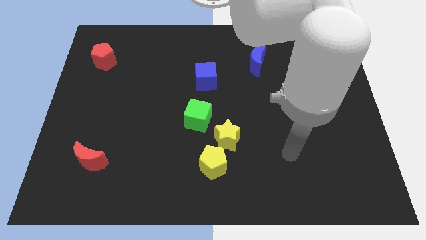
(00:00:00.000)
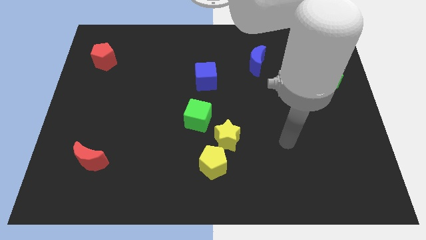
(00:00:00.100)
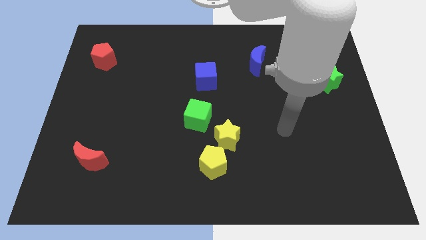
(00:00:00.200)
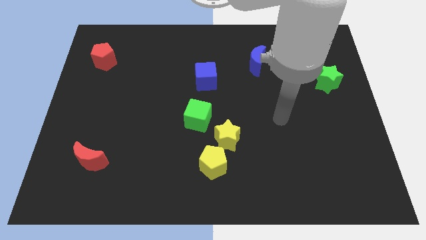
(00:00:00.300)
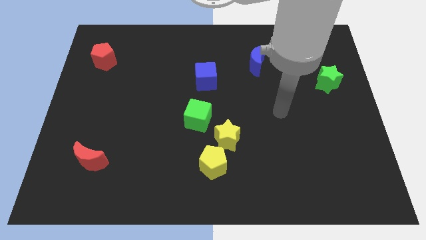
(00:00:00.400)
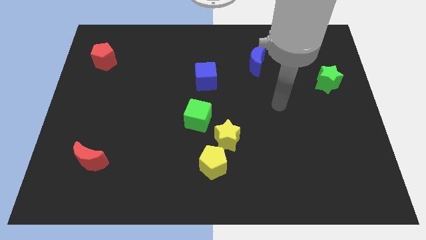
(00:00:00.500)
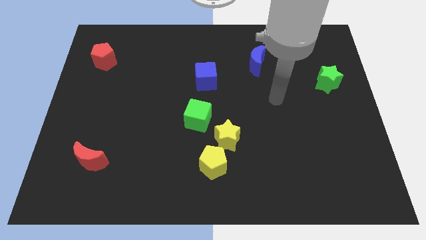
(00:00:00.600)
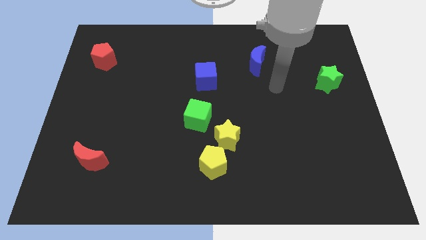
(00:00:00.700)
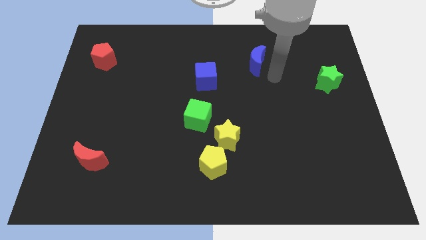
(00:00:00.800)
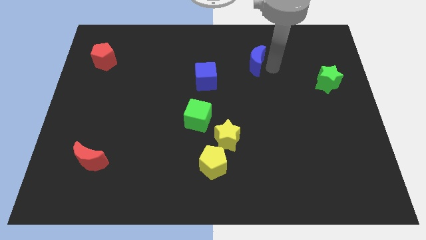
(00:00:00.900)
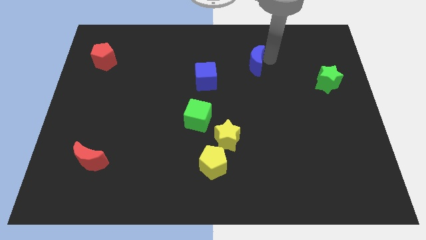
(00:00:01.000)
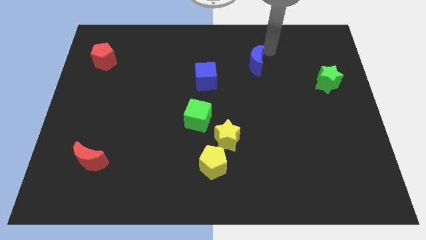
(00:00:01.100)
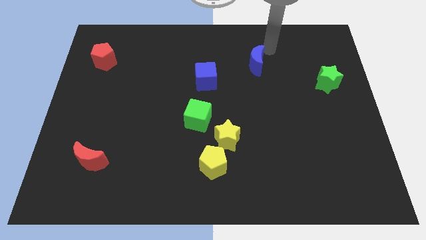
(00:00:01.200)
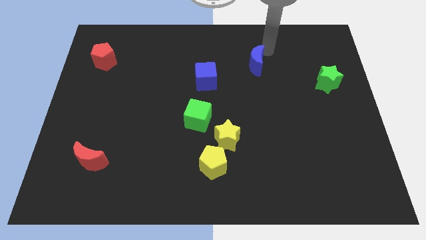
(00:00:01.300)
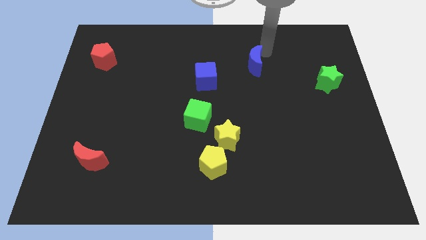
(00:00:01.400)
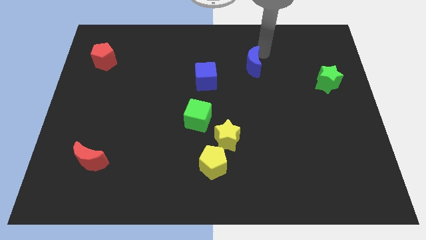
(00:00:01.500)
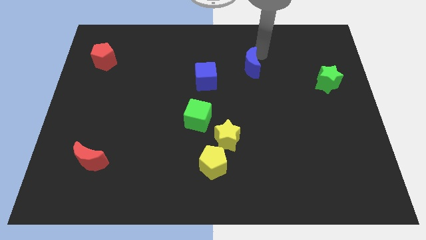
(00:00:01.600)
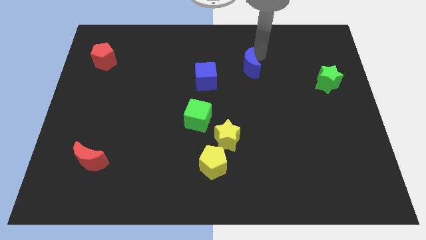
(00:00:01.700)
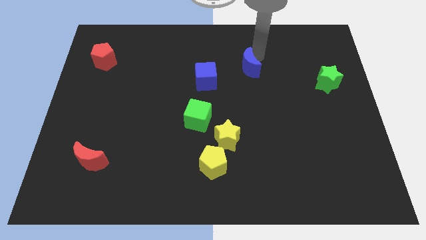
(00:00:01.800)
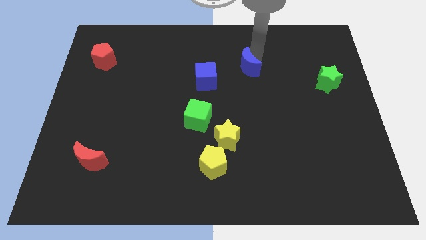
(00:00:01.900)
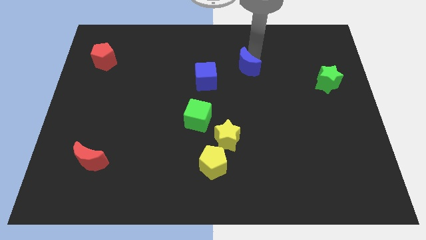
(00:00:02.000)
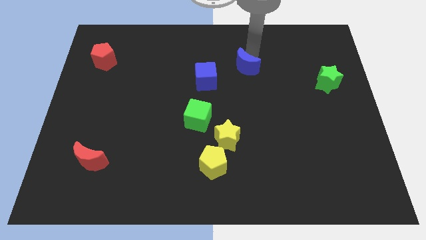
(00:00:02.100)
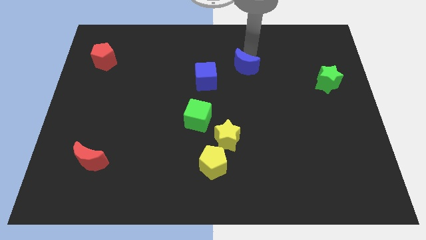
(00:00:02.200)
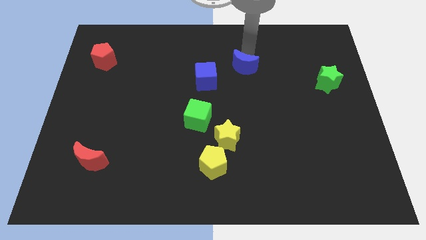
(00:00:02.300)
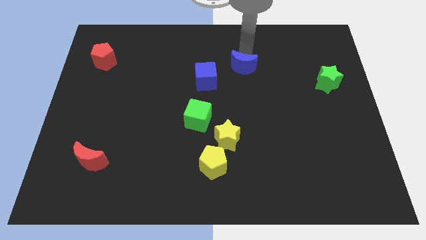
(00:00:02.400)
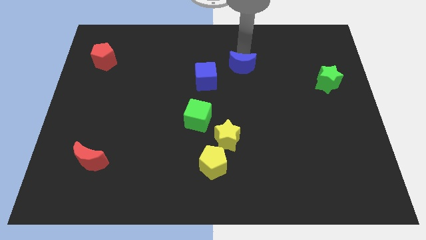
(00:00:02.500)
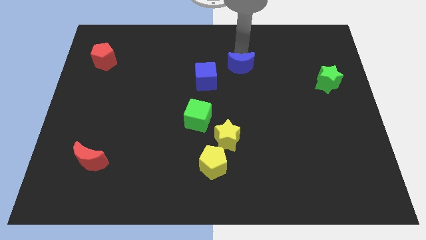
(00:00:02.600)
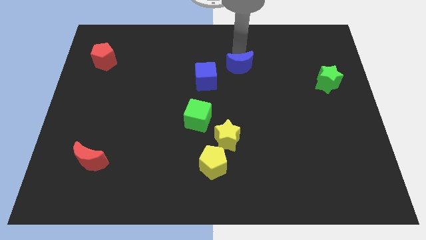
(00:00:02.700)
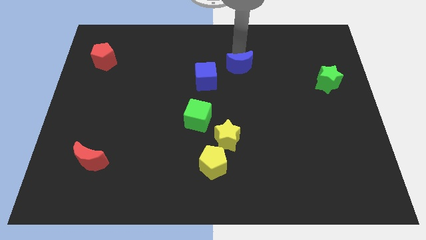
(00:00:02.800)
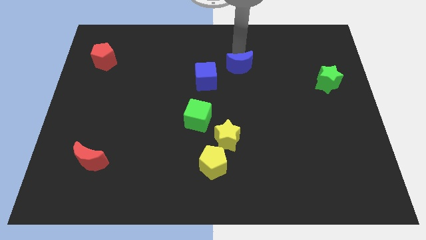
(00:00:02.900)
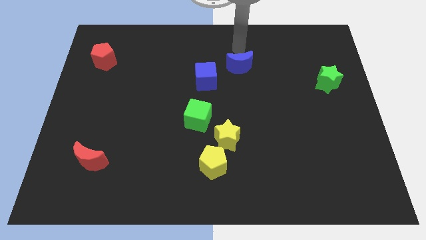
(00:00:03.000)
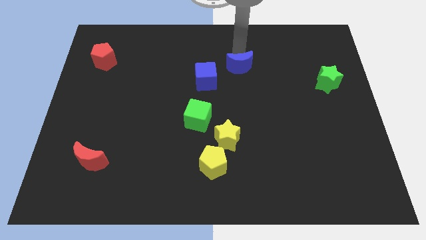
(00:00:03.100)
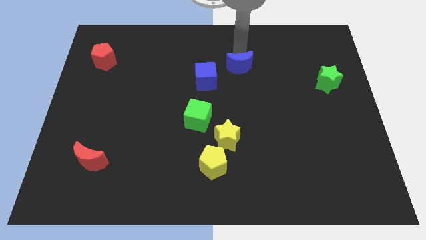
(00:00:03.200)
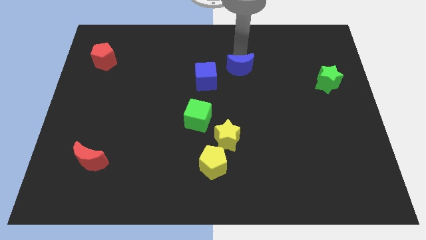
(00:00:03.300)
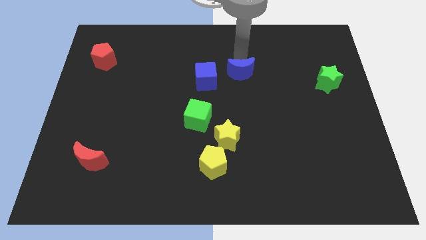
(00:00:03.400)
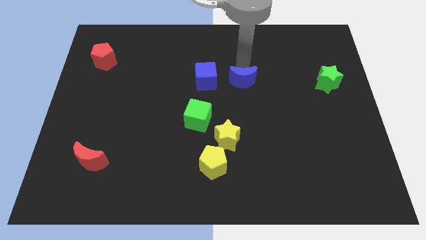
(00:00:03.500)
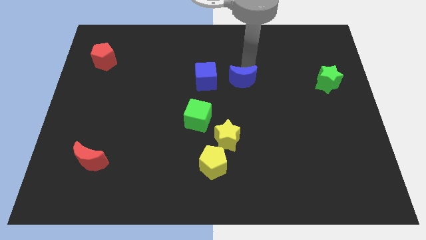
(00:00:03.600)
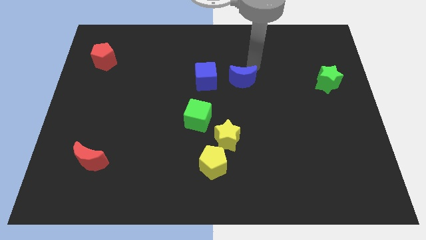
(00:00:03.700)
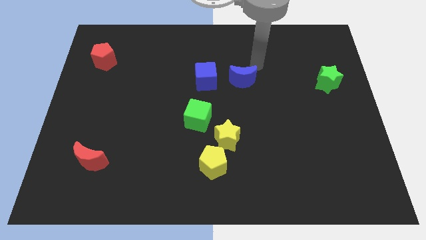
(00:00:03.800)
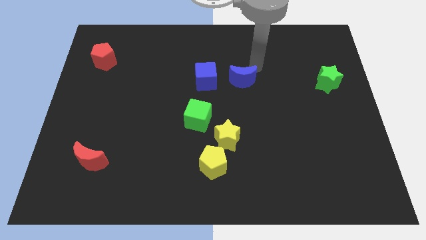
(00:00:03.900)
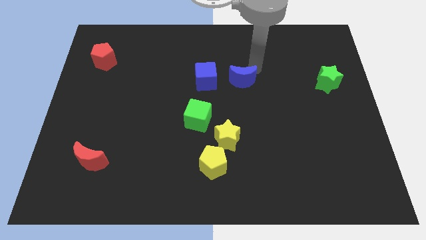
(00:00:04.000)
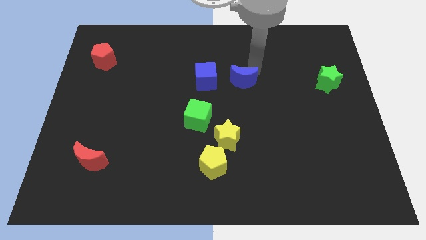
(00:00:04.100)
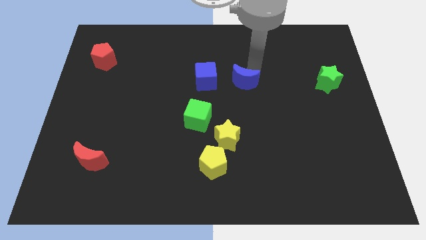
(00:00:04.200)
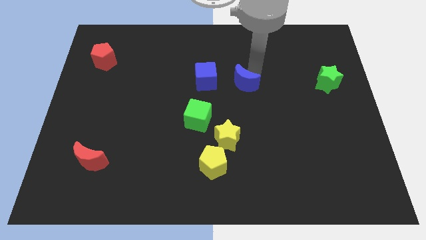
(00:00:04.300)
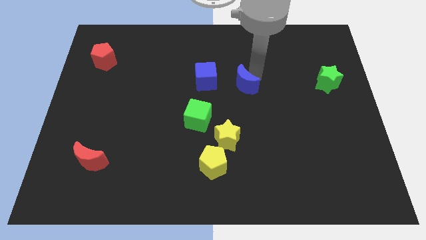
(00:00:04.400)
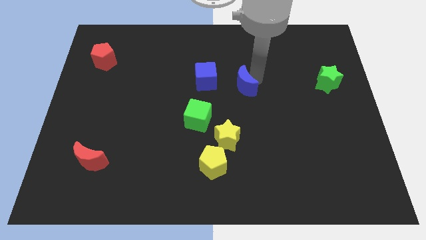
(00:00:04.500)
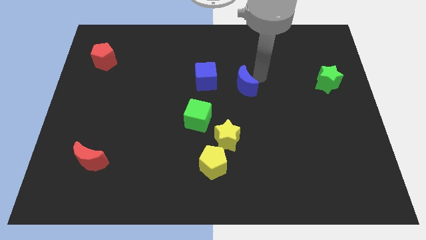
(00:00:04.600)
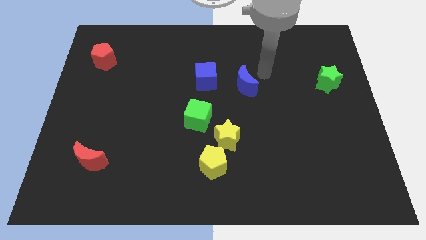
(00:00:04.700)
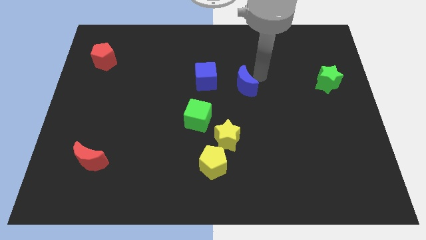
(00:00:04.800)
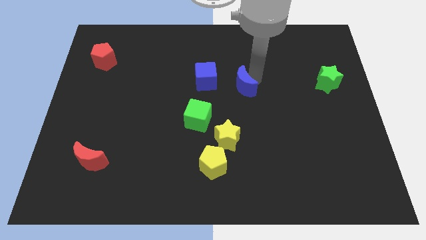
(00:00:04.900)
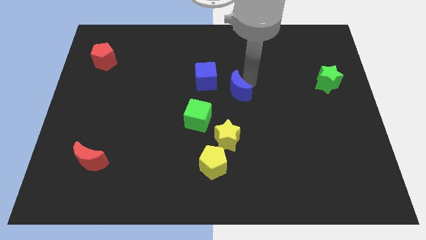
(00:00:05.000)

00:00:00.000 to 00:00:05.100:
push the blue moon to the bottom right side of the blue cube

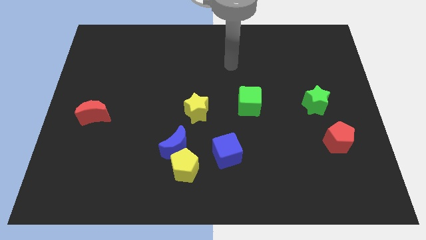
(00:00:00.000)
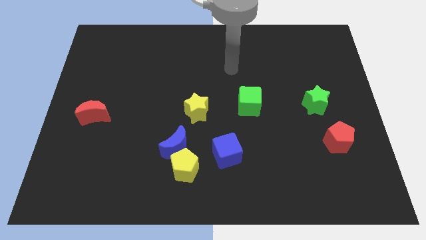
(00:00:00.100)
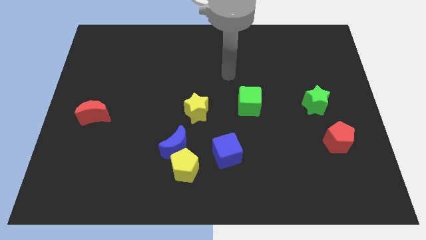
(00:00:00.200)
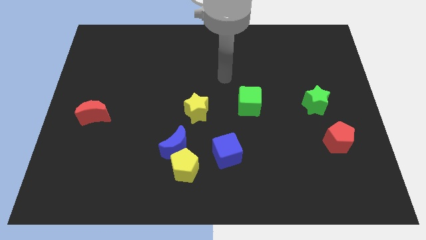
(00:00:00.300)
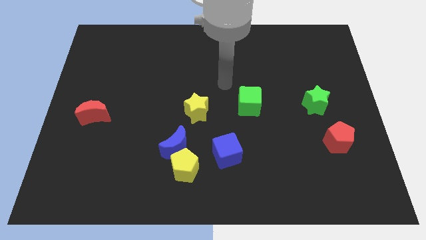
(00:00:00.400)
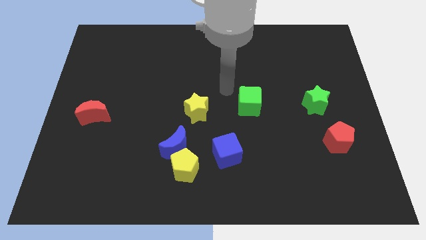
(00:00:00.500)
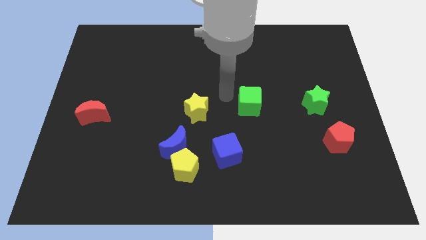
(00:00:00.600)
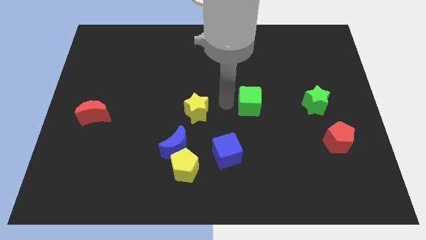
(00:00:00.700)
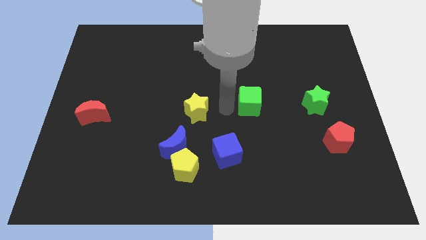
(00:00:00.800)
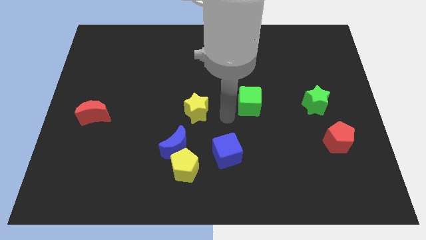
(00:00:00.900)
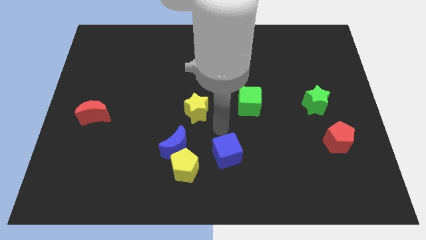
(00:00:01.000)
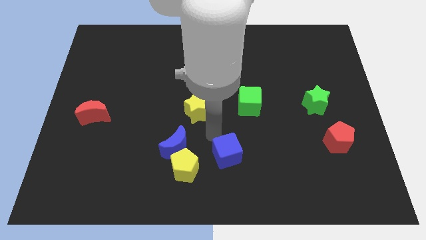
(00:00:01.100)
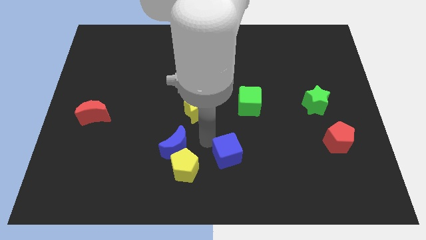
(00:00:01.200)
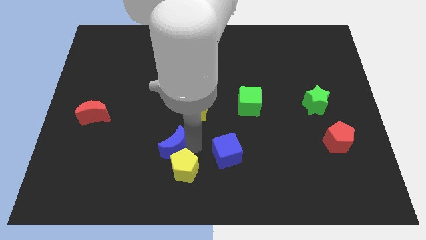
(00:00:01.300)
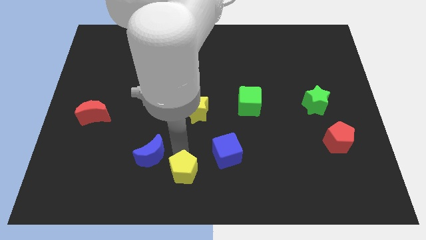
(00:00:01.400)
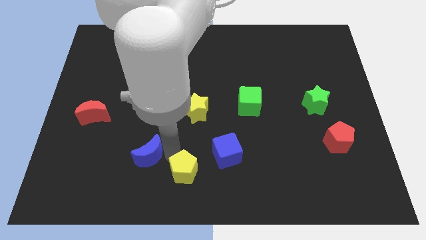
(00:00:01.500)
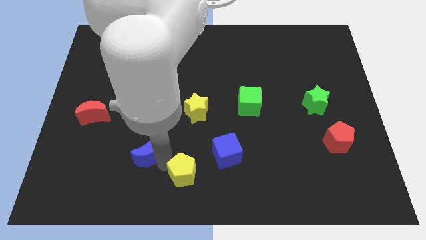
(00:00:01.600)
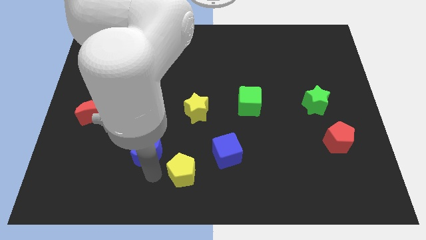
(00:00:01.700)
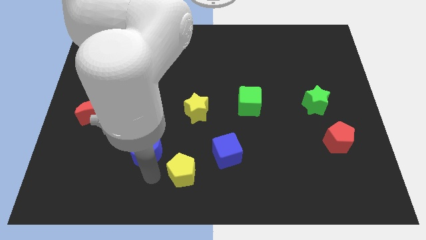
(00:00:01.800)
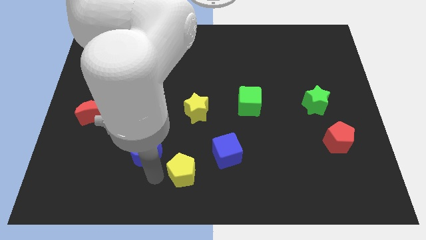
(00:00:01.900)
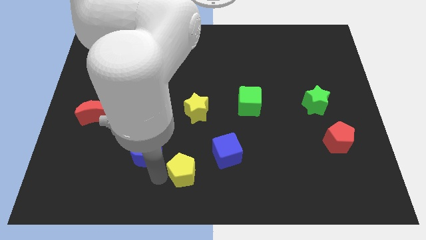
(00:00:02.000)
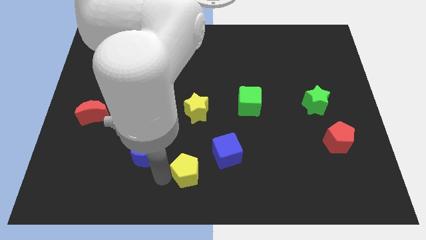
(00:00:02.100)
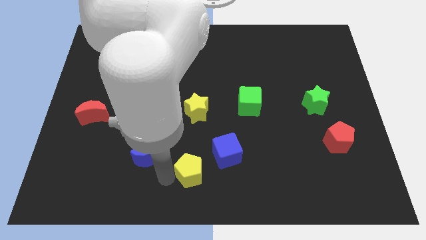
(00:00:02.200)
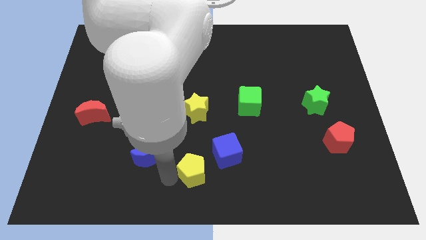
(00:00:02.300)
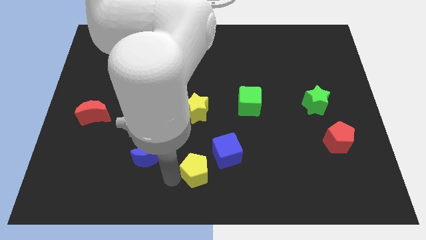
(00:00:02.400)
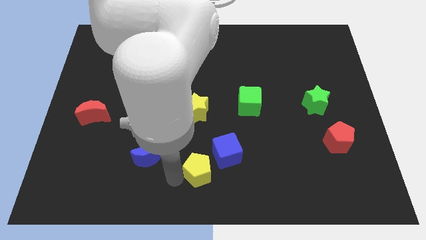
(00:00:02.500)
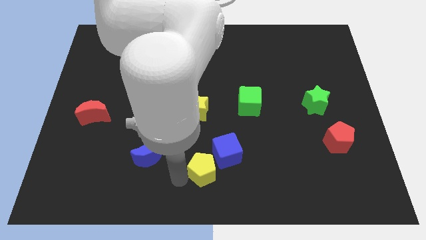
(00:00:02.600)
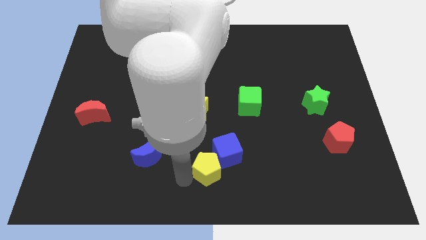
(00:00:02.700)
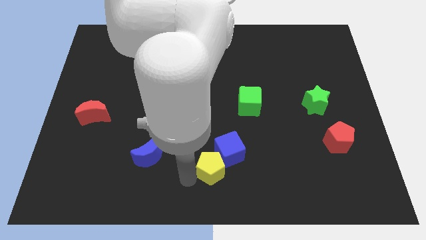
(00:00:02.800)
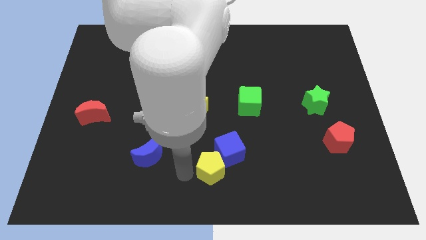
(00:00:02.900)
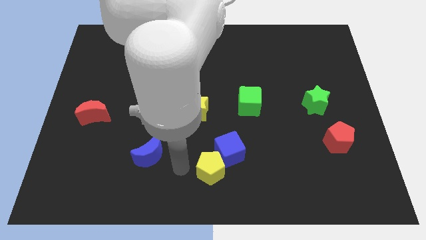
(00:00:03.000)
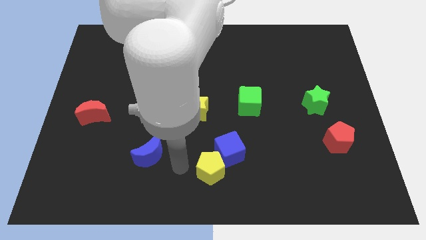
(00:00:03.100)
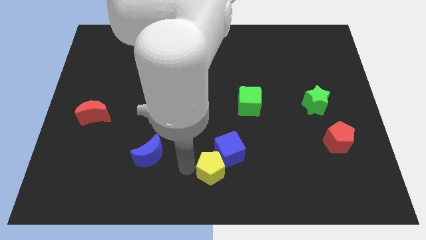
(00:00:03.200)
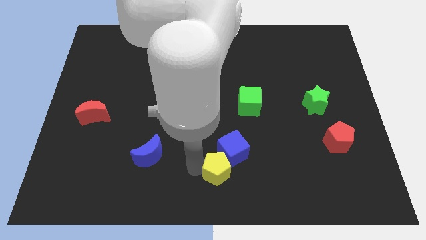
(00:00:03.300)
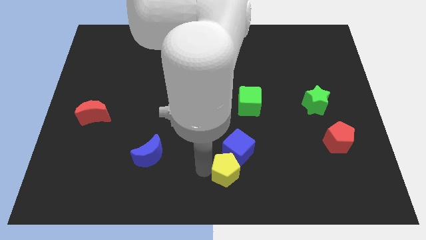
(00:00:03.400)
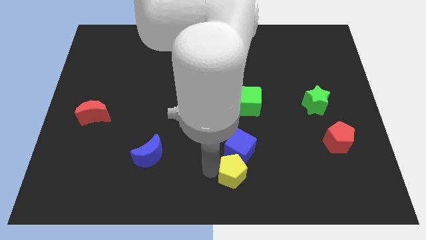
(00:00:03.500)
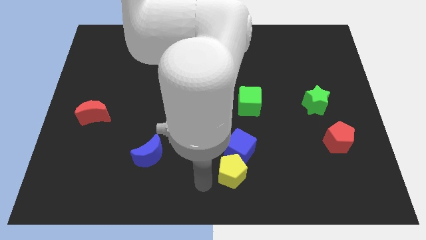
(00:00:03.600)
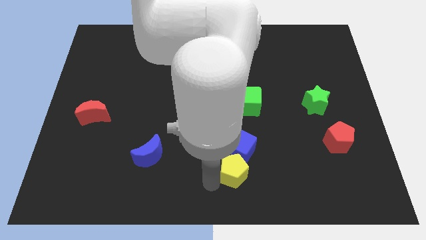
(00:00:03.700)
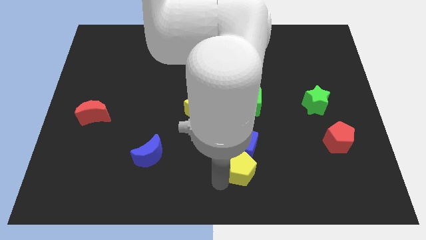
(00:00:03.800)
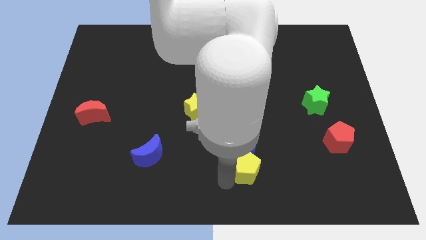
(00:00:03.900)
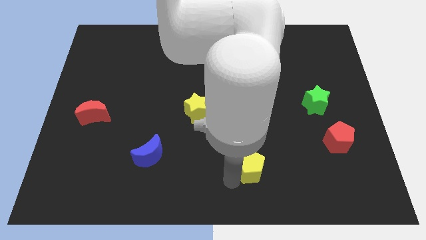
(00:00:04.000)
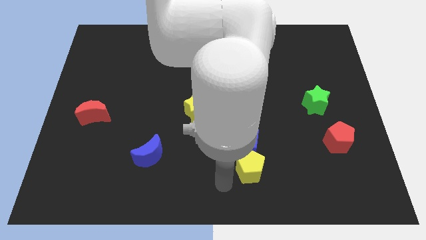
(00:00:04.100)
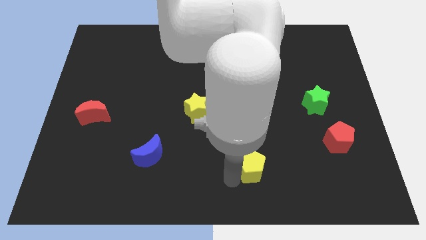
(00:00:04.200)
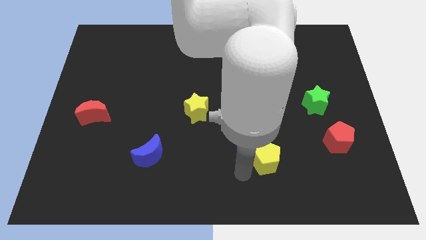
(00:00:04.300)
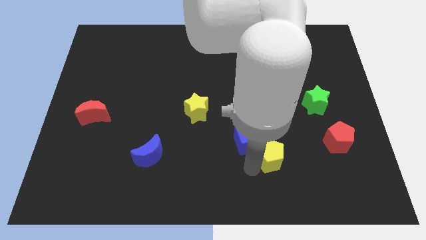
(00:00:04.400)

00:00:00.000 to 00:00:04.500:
push the yellow pentagon just right of the blue cube
